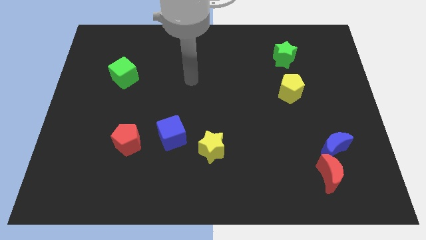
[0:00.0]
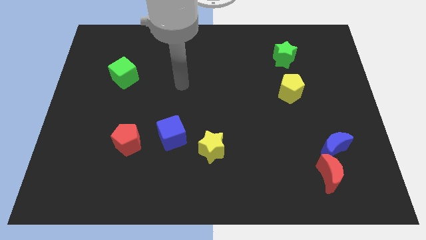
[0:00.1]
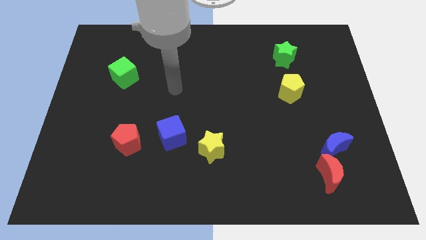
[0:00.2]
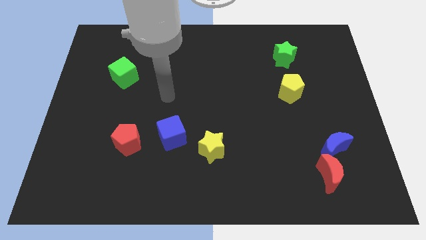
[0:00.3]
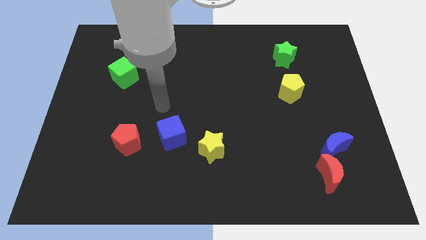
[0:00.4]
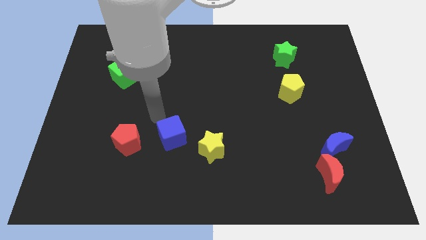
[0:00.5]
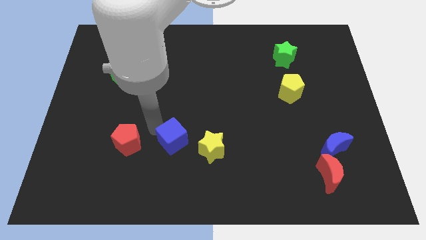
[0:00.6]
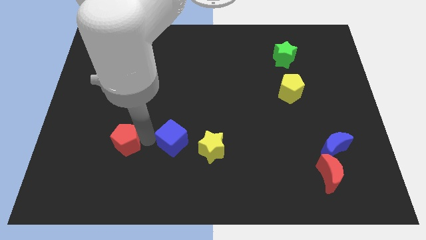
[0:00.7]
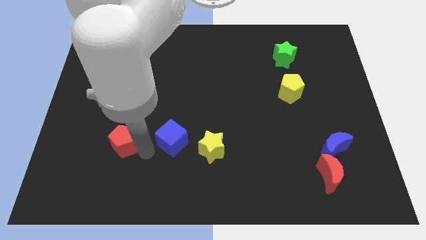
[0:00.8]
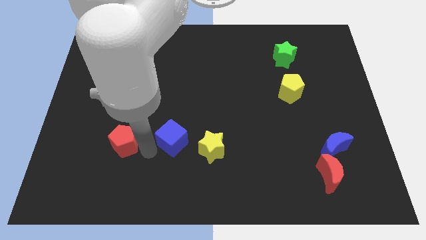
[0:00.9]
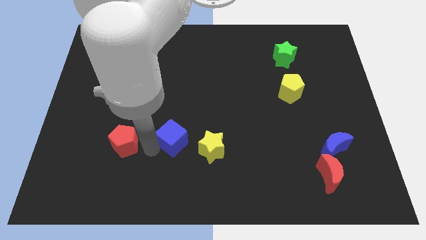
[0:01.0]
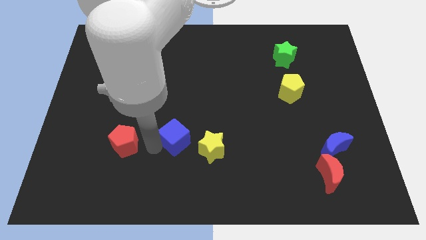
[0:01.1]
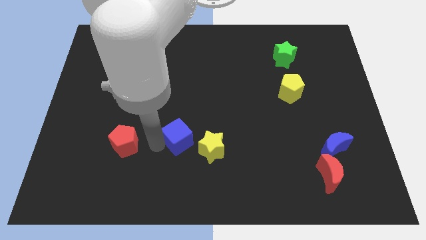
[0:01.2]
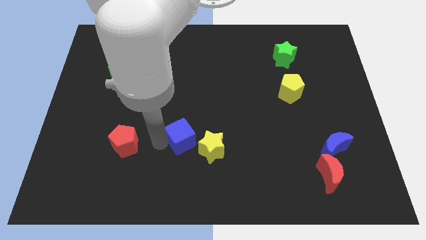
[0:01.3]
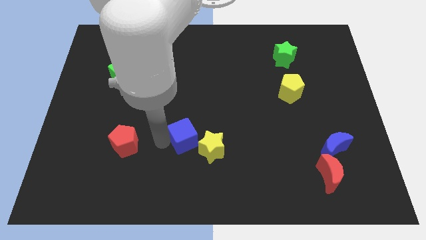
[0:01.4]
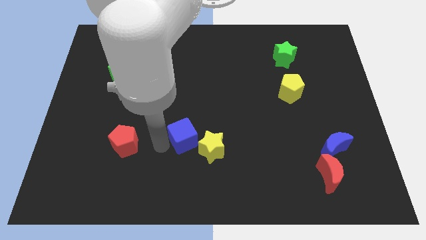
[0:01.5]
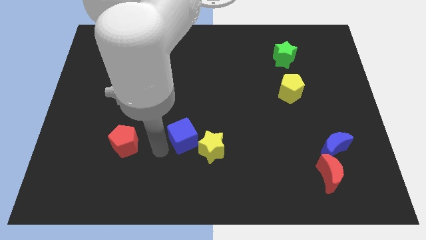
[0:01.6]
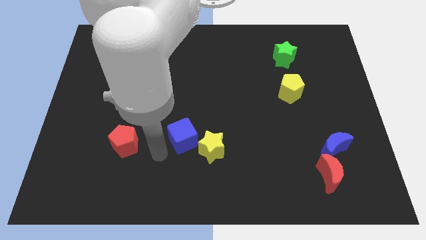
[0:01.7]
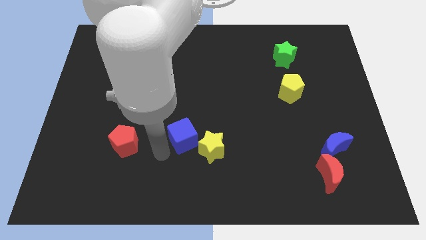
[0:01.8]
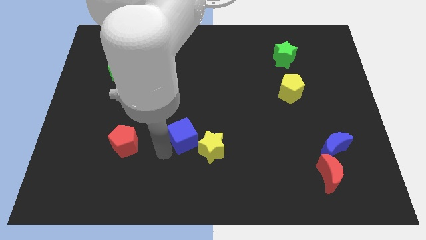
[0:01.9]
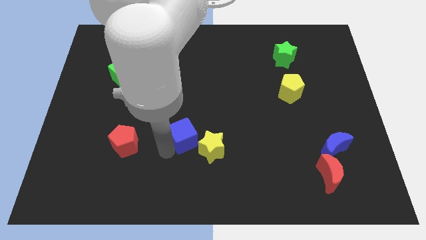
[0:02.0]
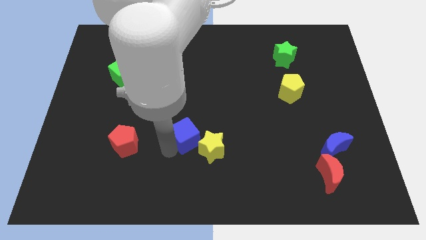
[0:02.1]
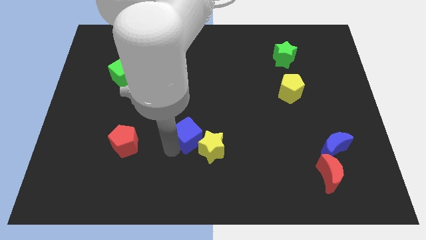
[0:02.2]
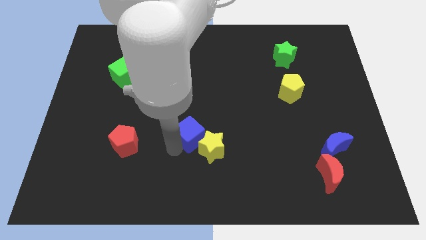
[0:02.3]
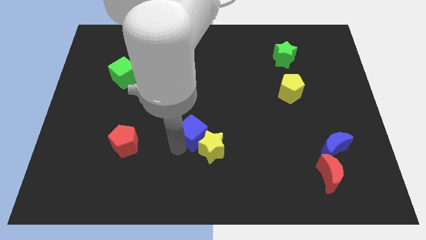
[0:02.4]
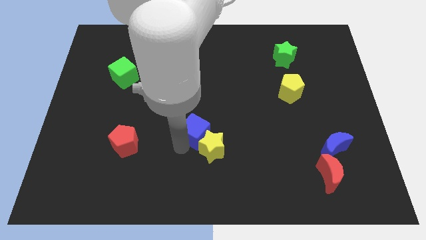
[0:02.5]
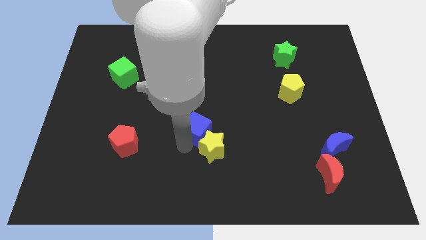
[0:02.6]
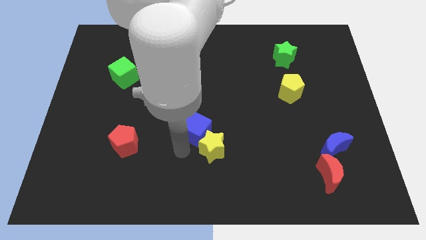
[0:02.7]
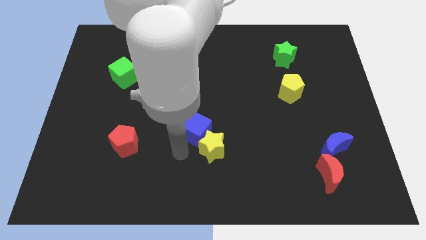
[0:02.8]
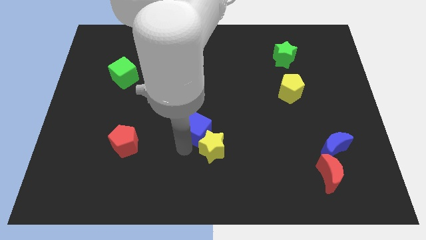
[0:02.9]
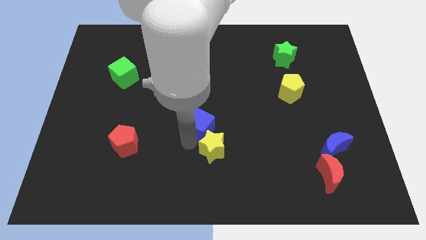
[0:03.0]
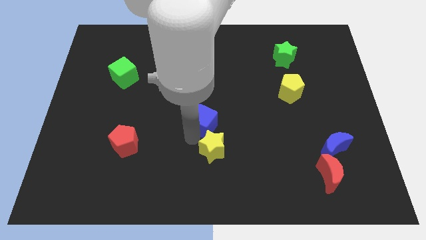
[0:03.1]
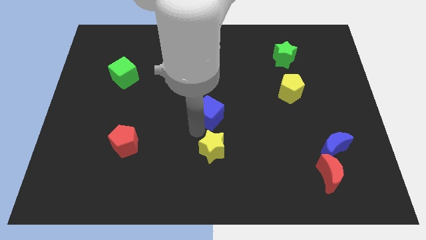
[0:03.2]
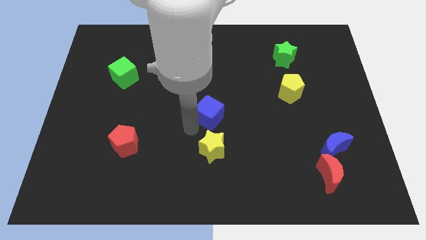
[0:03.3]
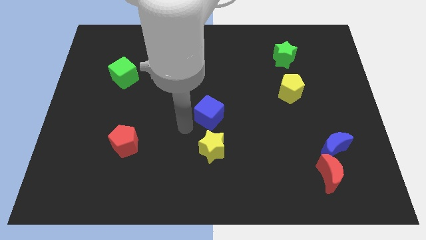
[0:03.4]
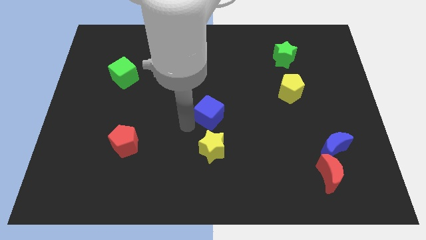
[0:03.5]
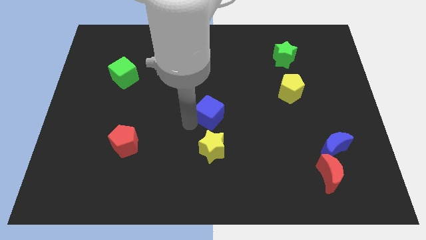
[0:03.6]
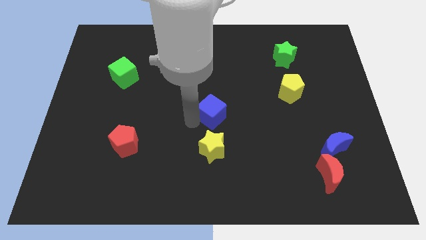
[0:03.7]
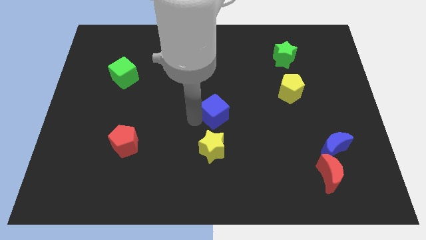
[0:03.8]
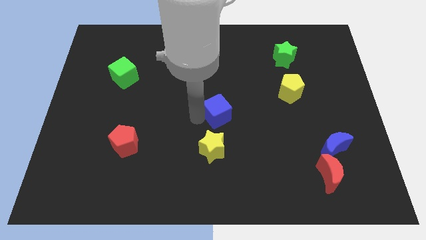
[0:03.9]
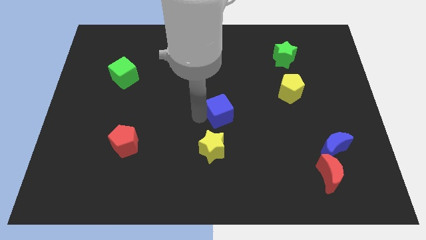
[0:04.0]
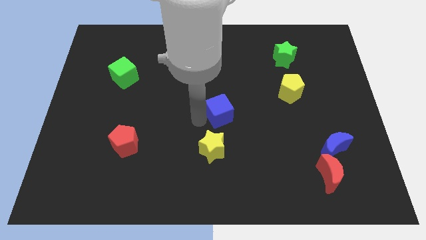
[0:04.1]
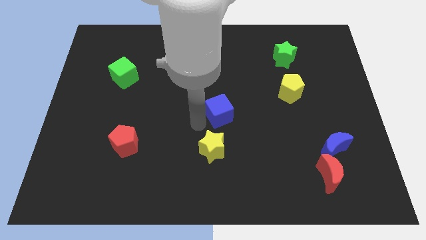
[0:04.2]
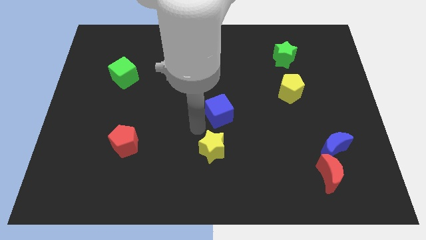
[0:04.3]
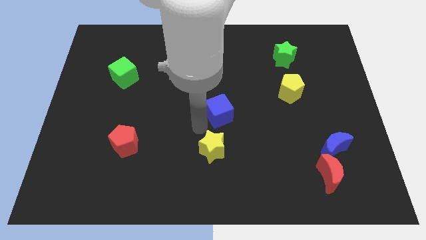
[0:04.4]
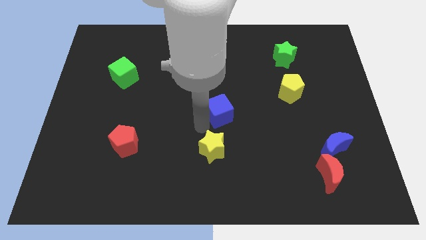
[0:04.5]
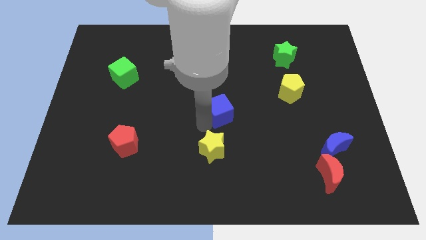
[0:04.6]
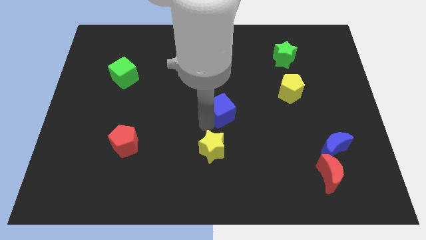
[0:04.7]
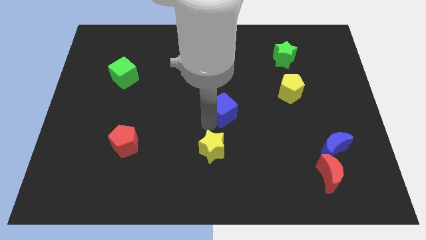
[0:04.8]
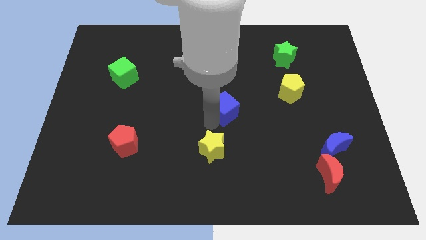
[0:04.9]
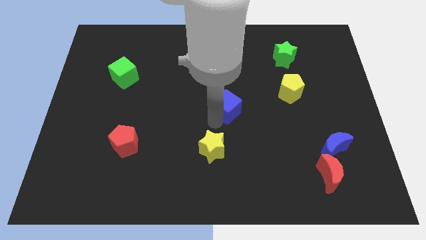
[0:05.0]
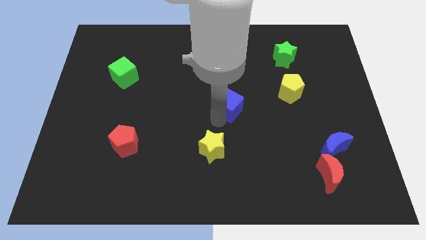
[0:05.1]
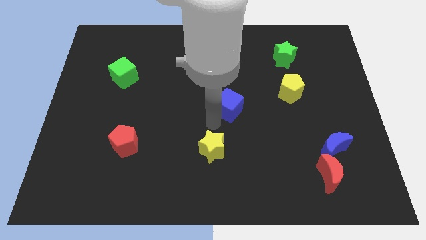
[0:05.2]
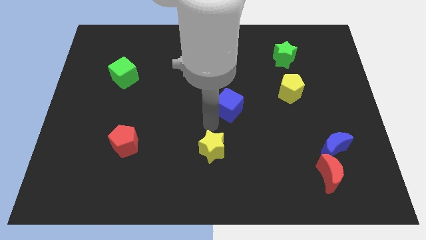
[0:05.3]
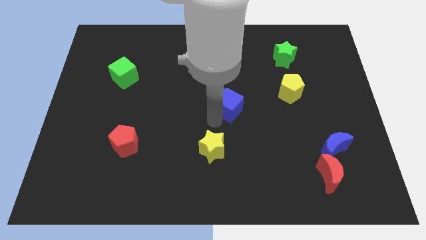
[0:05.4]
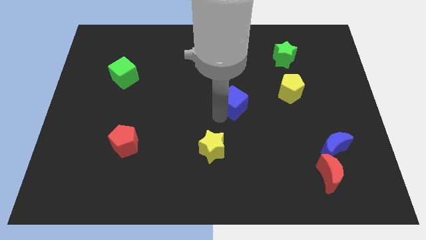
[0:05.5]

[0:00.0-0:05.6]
move the blue cube to the left of the yellow pentagon

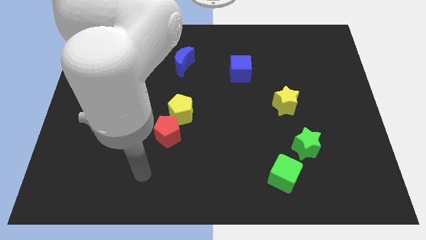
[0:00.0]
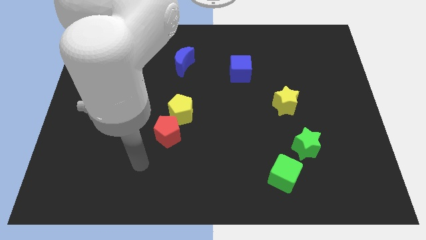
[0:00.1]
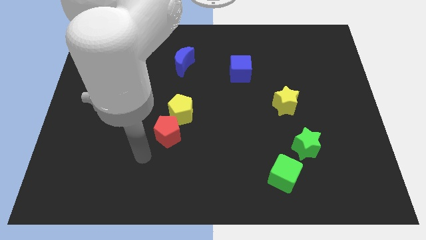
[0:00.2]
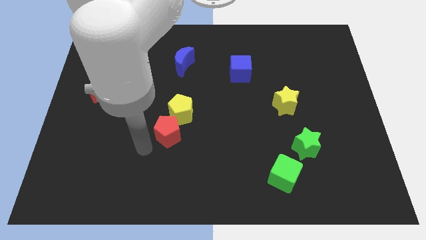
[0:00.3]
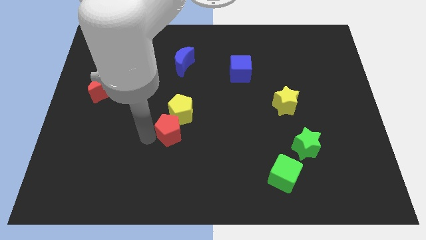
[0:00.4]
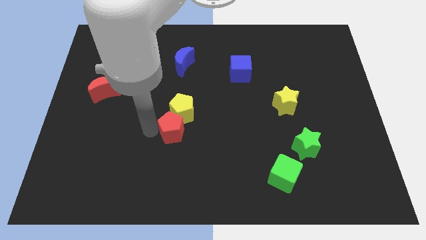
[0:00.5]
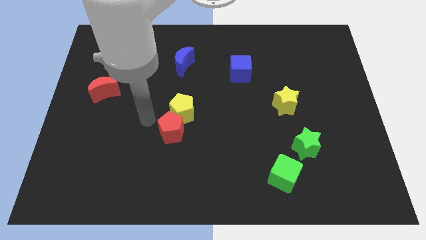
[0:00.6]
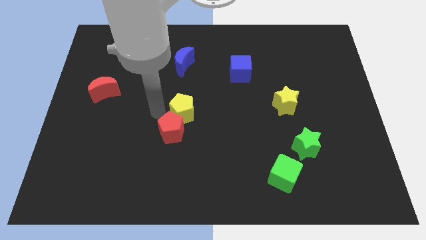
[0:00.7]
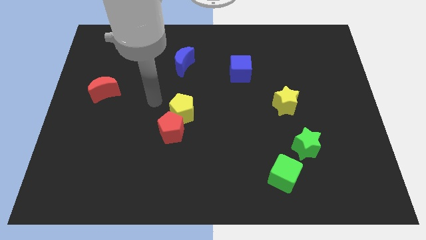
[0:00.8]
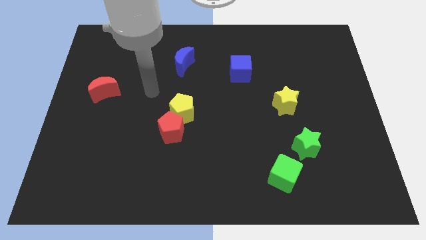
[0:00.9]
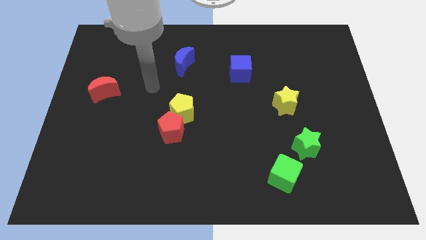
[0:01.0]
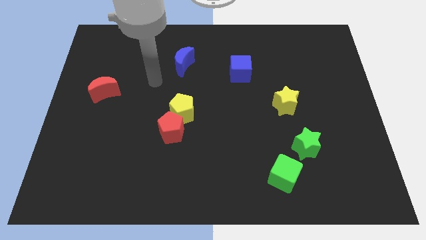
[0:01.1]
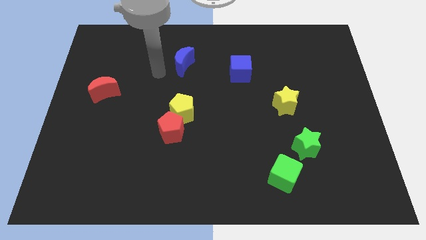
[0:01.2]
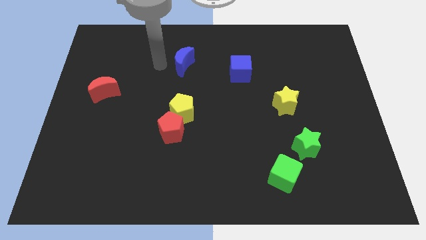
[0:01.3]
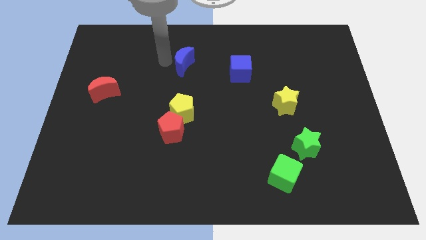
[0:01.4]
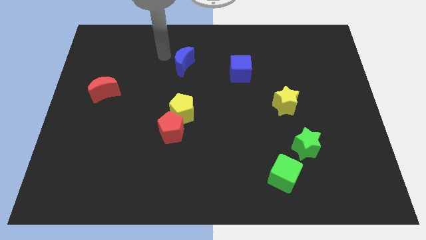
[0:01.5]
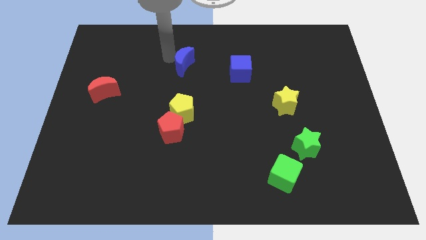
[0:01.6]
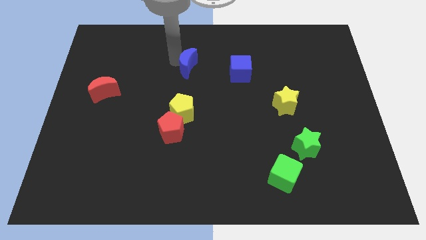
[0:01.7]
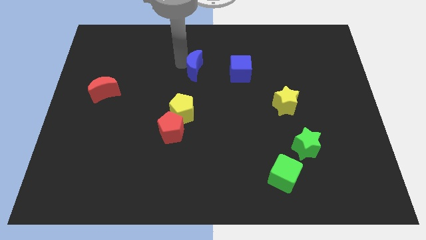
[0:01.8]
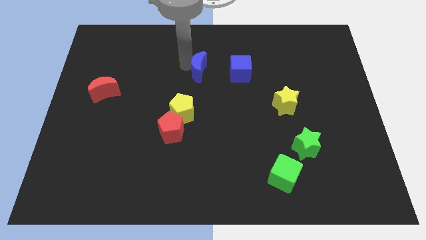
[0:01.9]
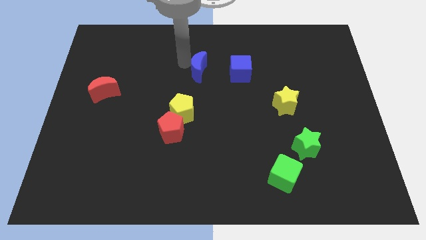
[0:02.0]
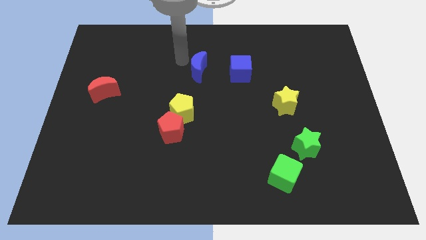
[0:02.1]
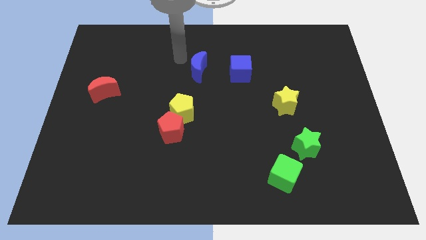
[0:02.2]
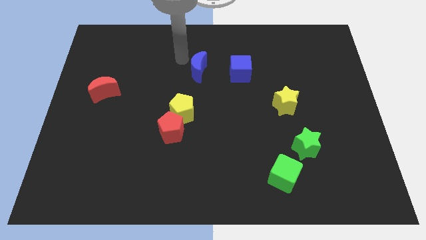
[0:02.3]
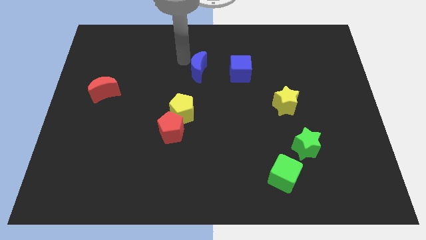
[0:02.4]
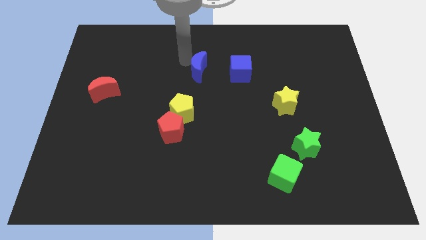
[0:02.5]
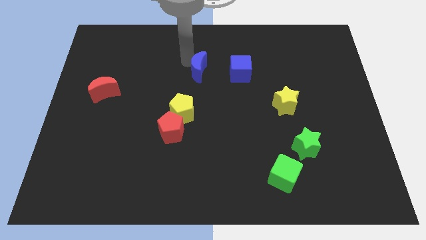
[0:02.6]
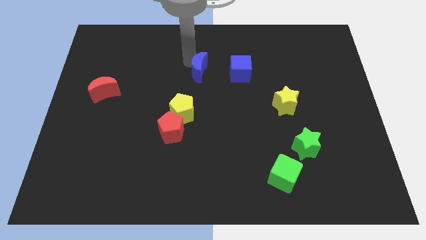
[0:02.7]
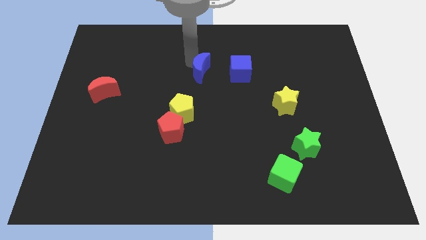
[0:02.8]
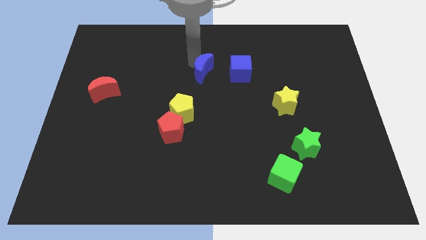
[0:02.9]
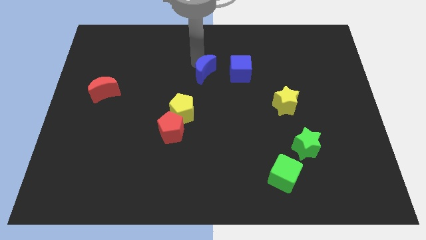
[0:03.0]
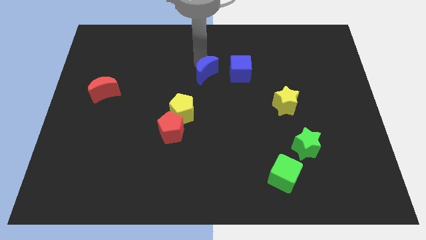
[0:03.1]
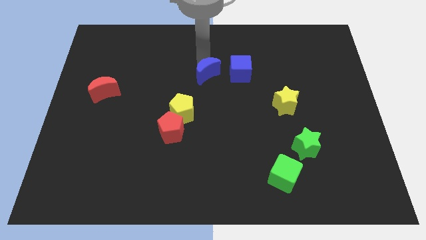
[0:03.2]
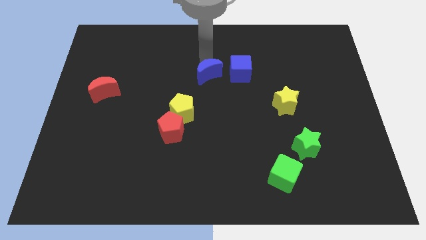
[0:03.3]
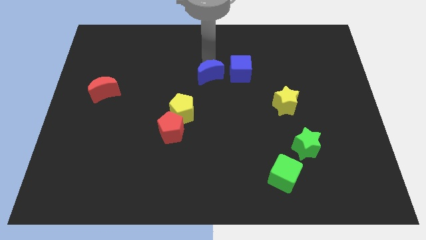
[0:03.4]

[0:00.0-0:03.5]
push the blue moon to the bottom left side of the blue cube
